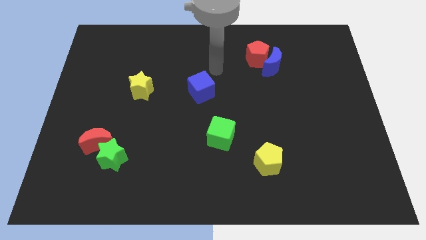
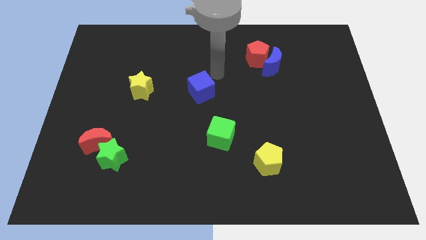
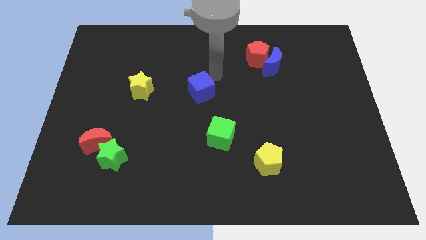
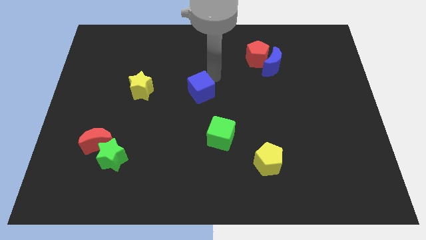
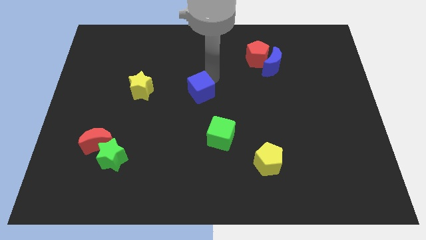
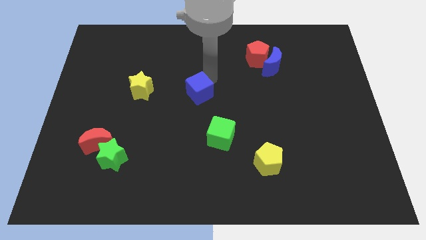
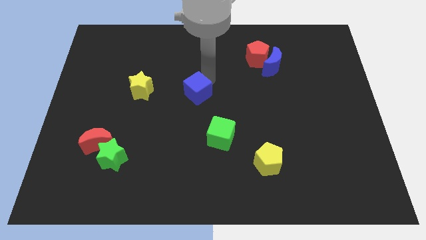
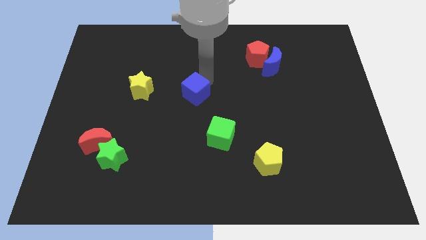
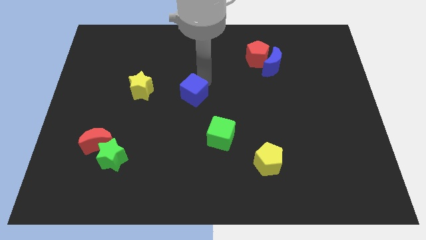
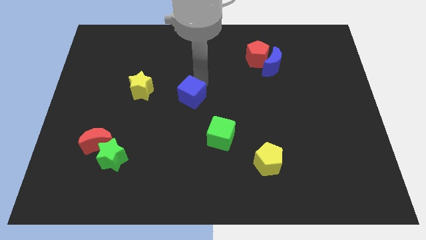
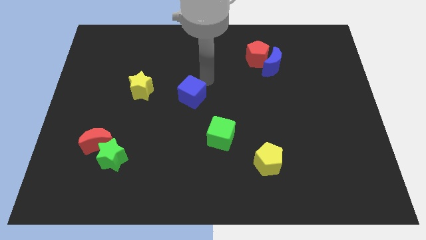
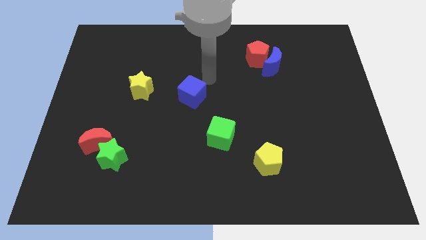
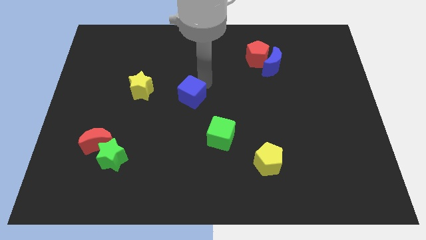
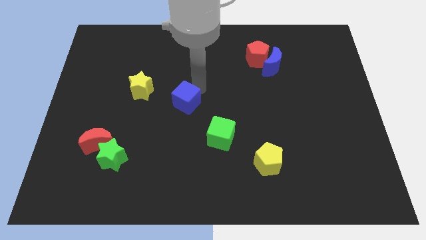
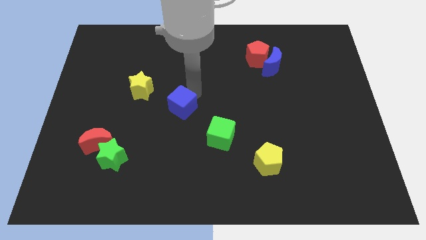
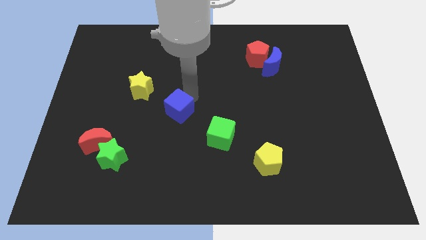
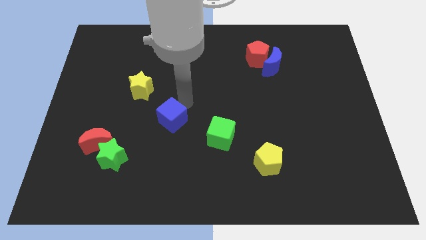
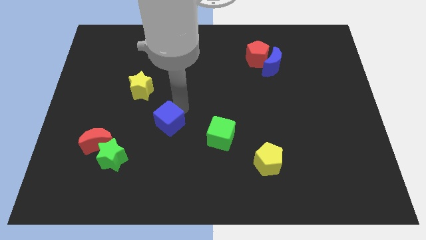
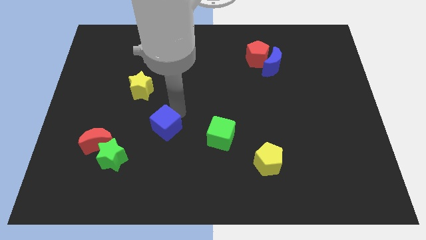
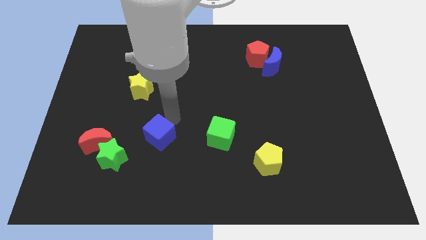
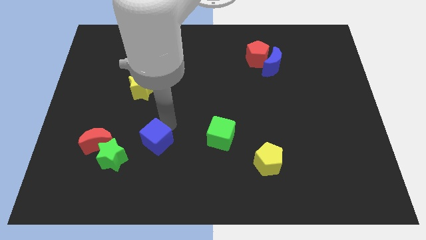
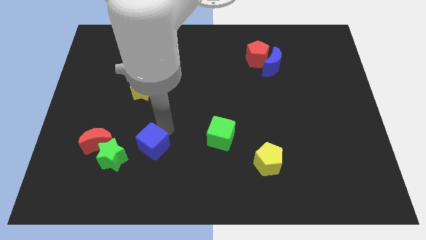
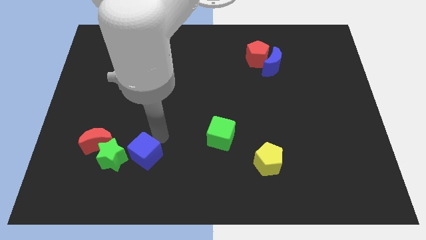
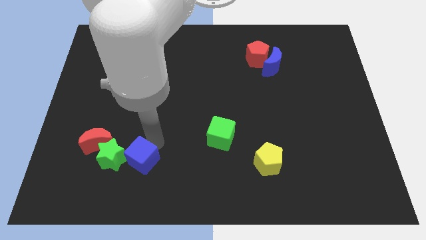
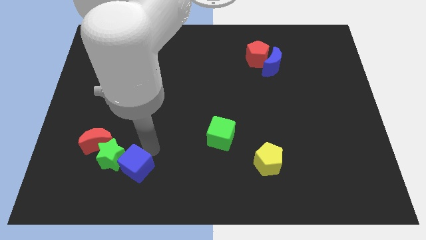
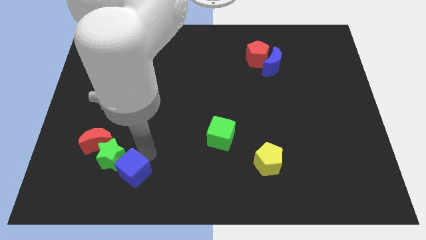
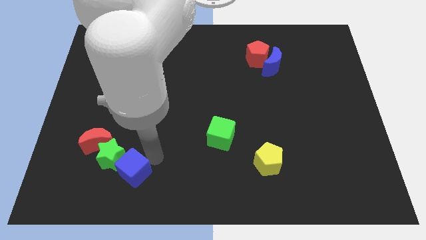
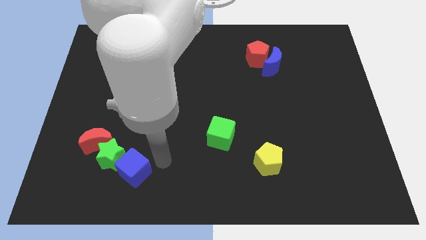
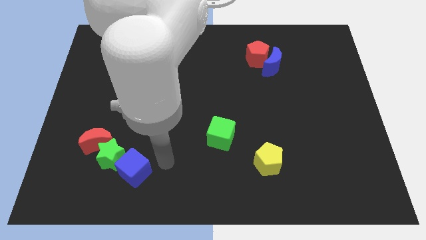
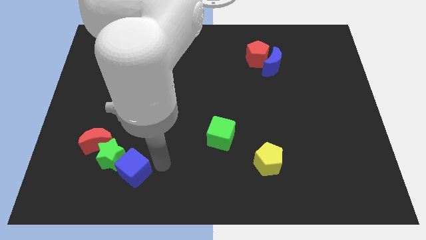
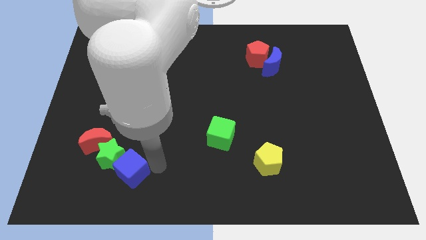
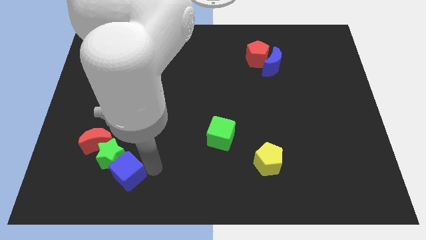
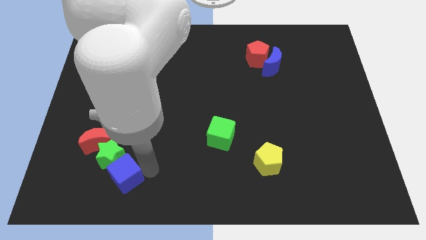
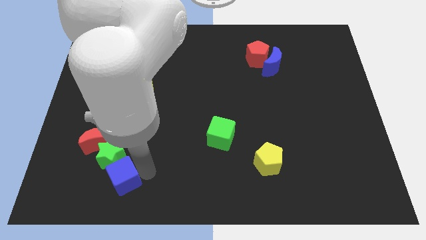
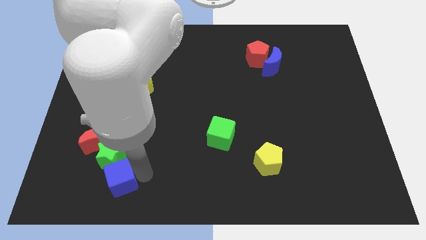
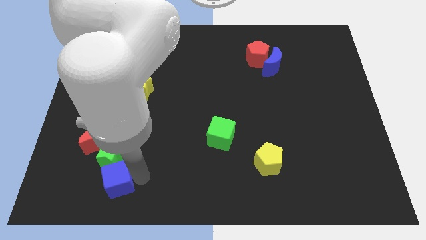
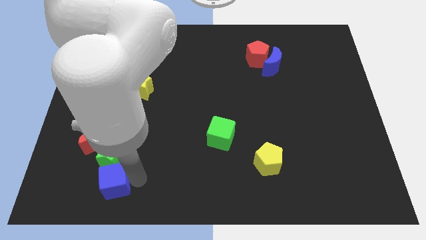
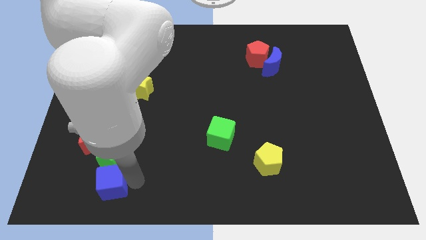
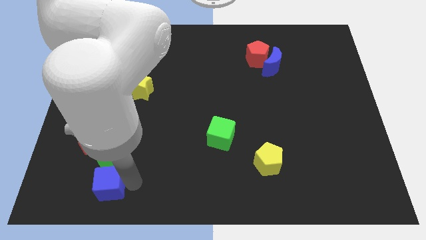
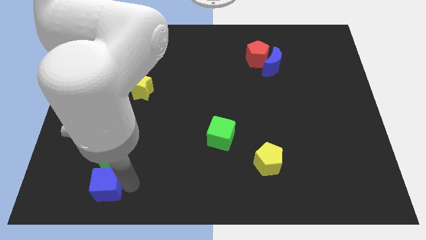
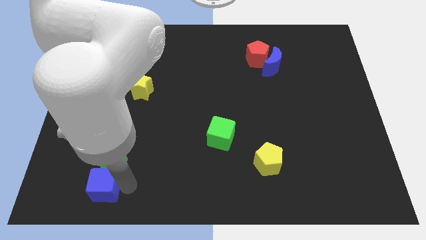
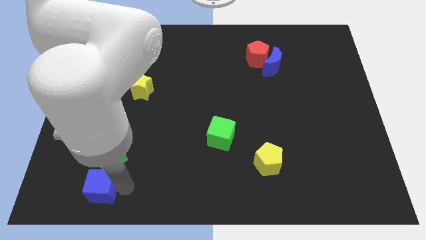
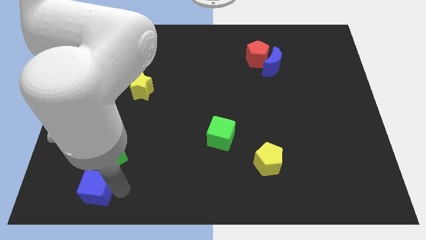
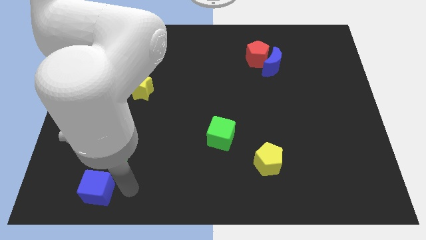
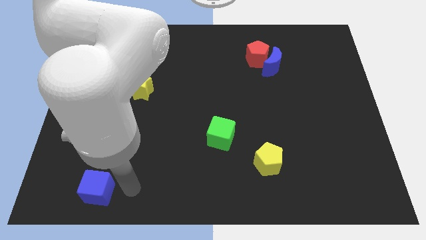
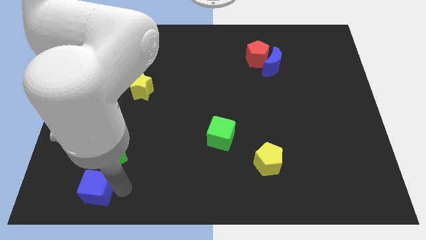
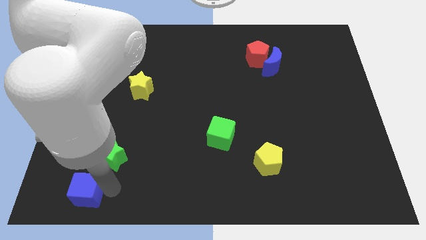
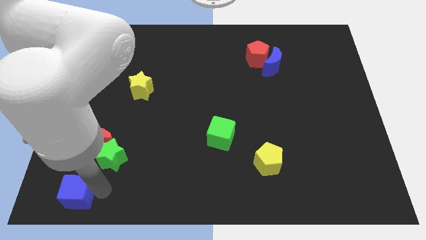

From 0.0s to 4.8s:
slide the blue cube to the bottom left

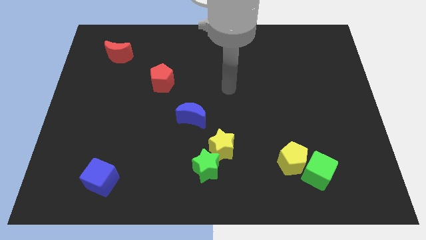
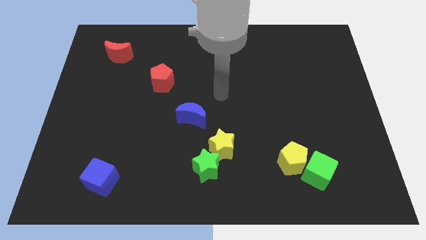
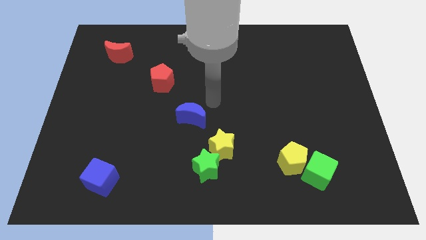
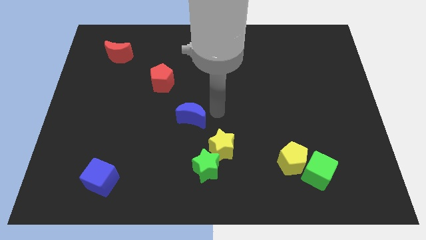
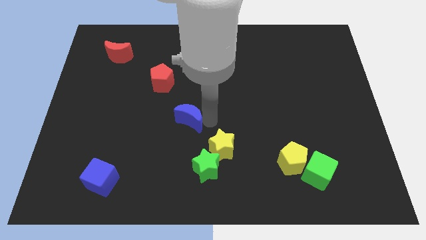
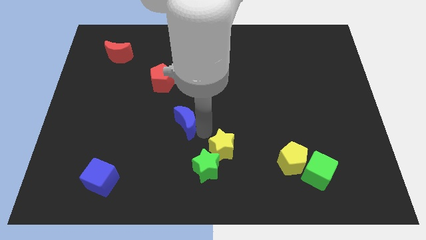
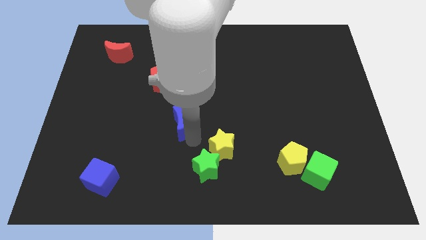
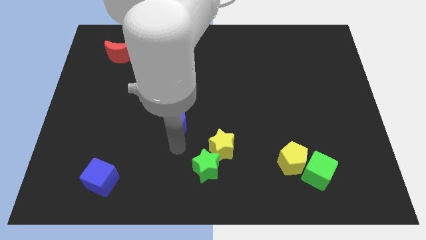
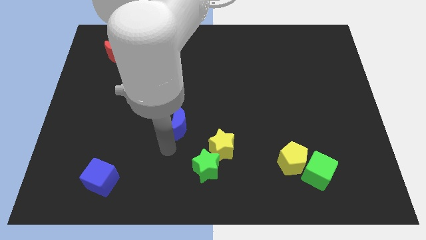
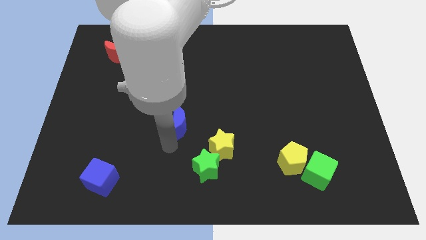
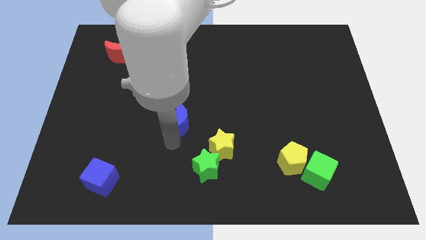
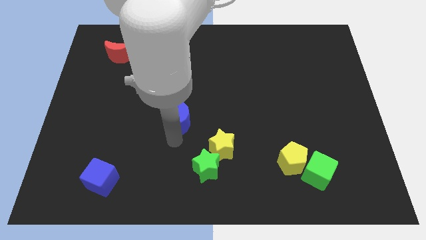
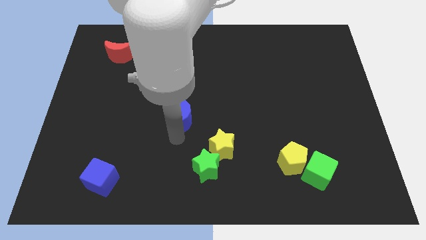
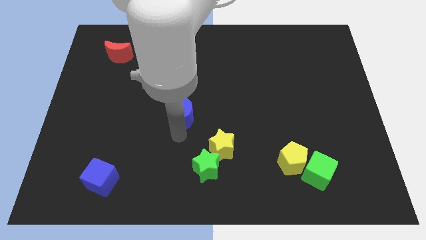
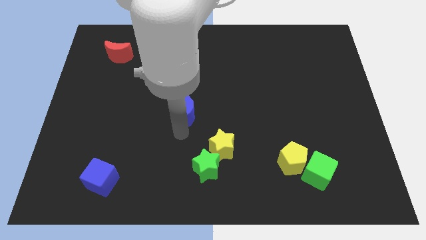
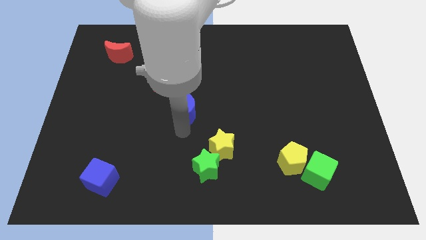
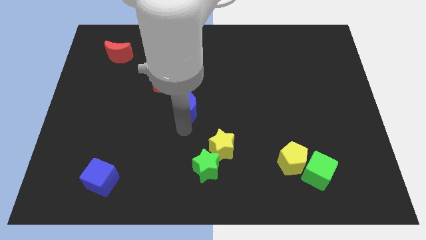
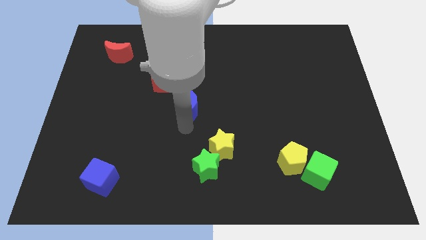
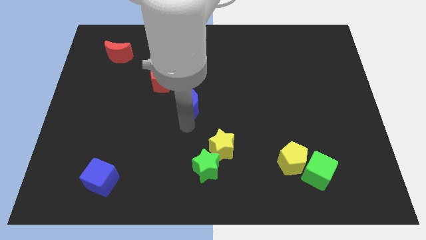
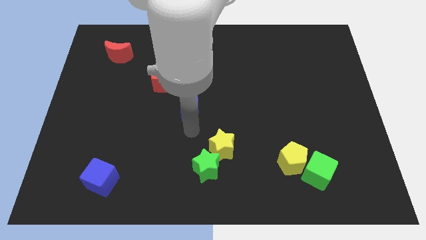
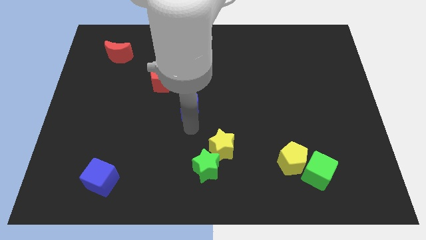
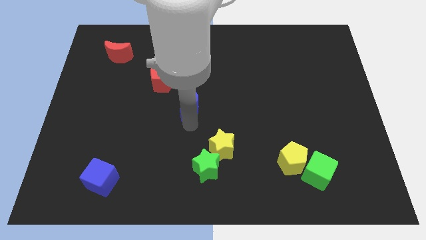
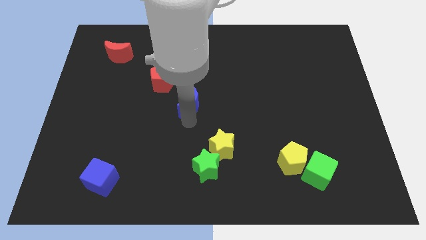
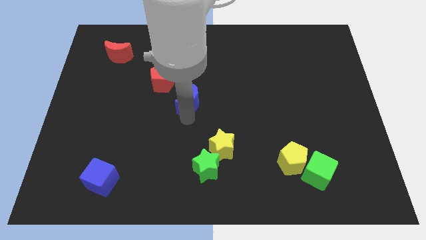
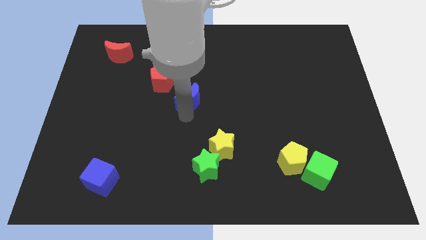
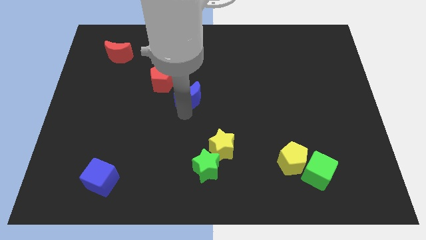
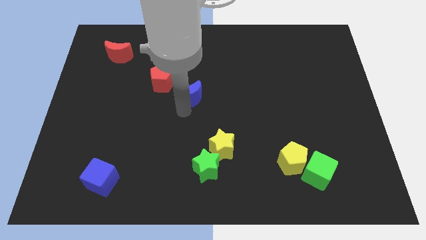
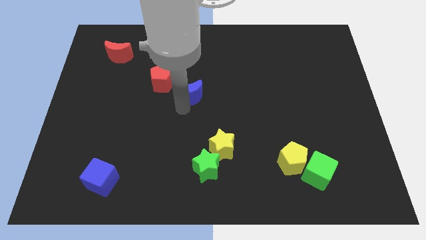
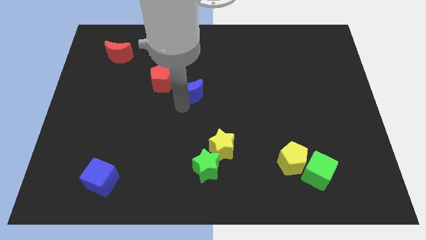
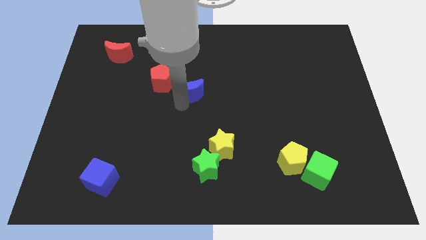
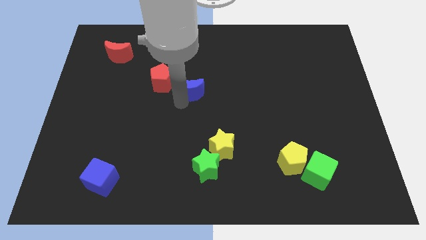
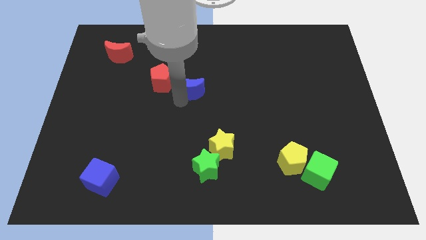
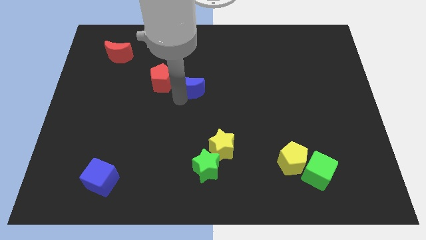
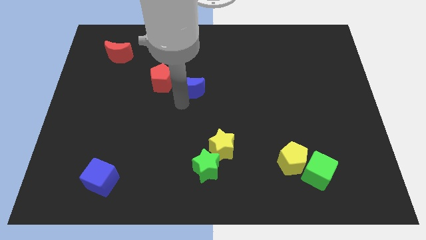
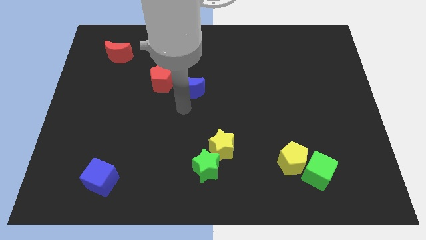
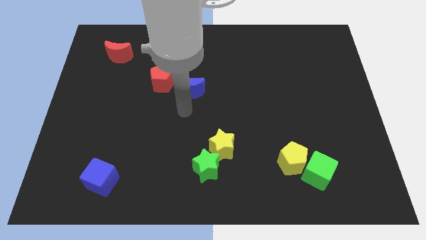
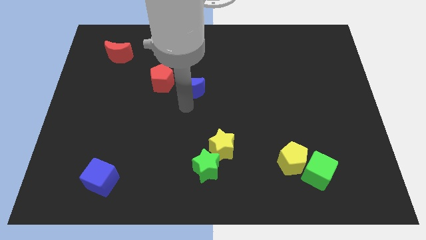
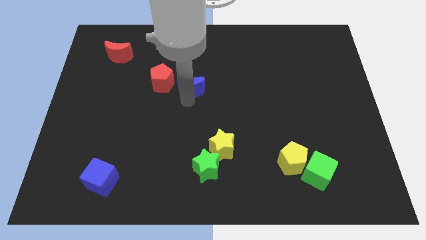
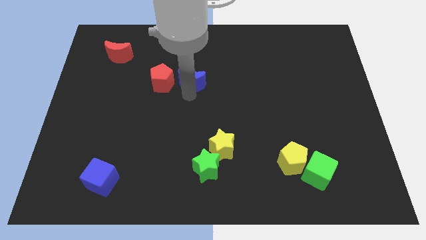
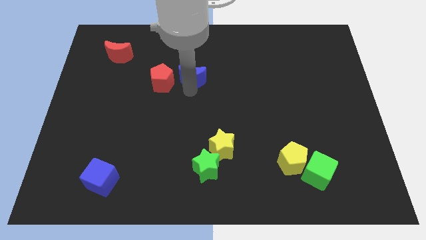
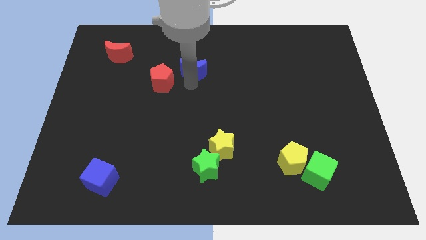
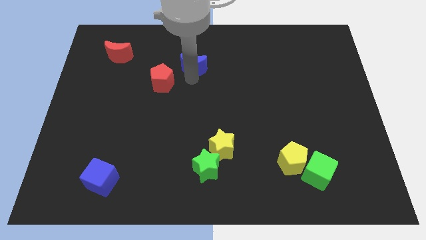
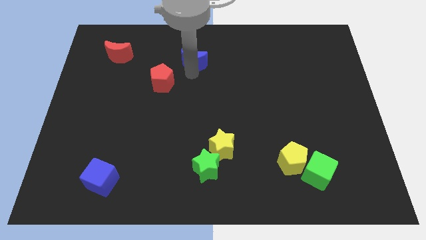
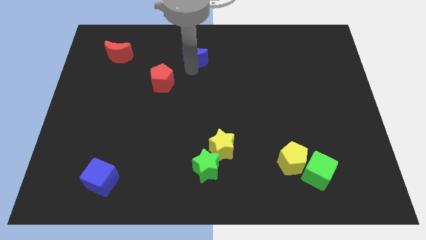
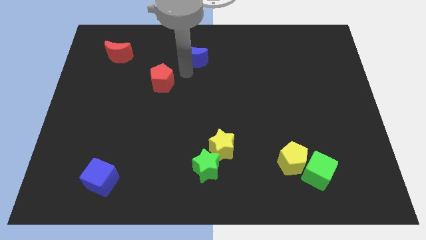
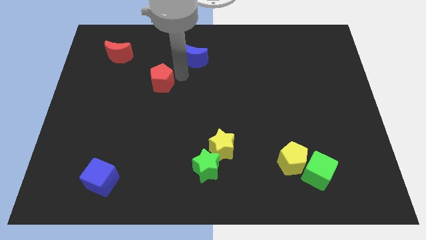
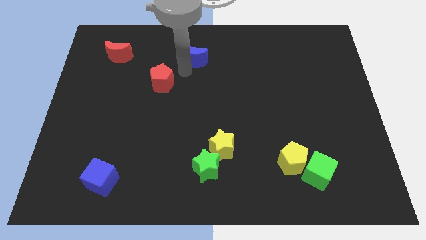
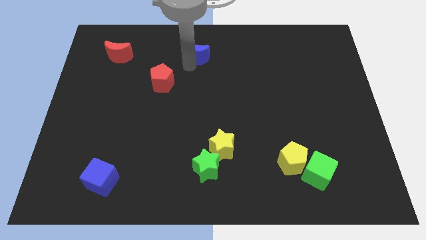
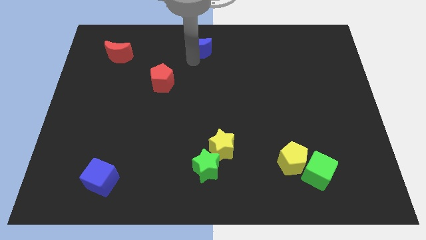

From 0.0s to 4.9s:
put the blue moon to the top side
